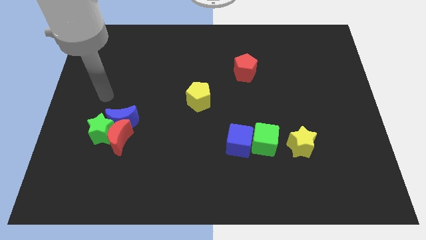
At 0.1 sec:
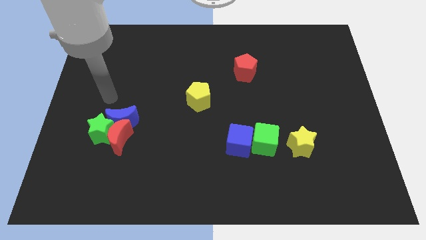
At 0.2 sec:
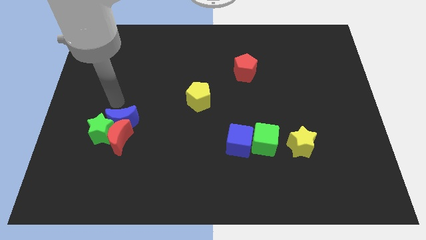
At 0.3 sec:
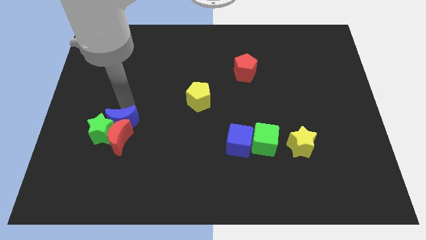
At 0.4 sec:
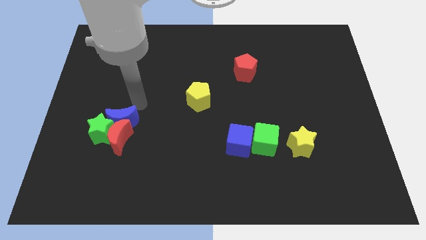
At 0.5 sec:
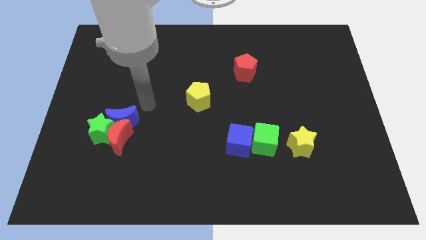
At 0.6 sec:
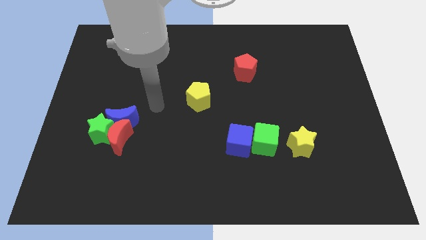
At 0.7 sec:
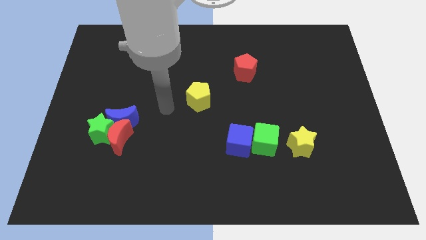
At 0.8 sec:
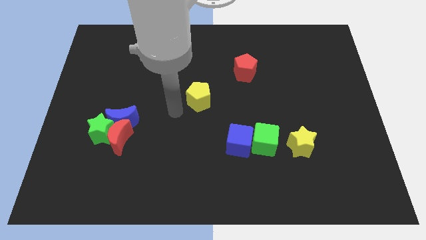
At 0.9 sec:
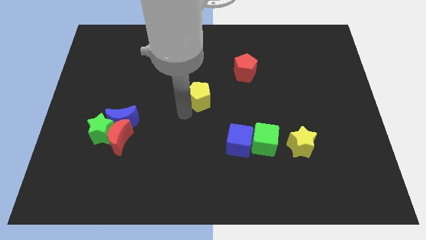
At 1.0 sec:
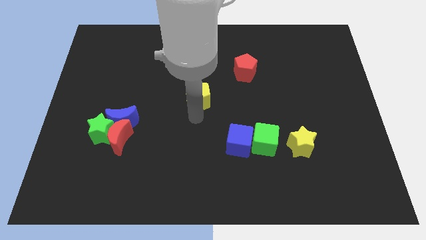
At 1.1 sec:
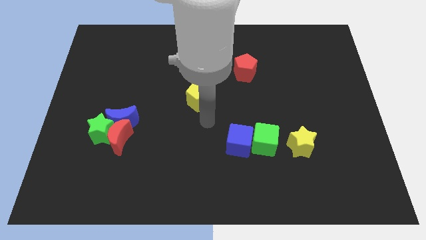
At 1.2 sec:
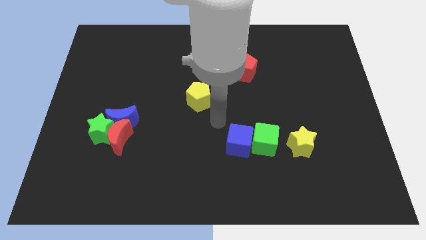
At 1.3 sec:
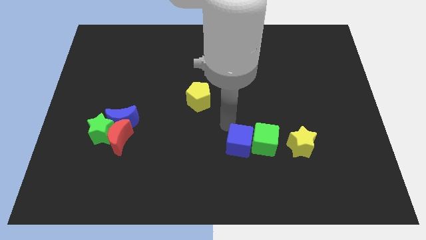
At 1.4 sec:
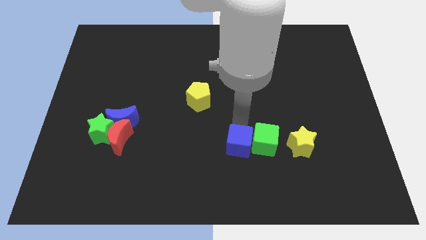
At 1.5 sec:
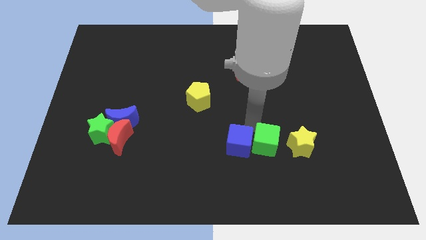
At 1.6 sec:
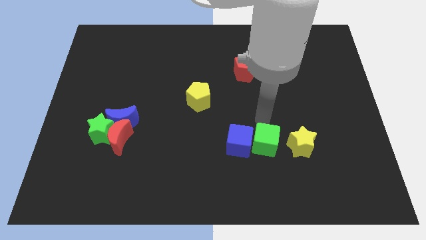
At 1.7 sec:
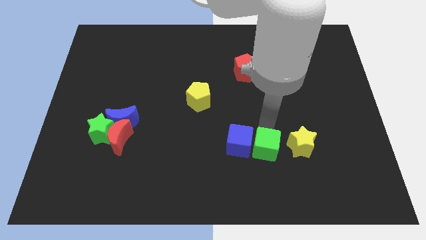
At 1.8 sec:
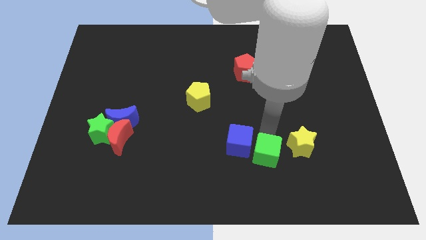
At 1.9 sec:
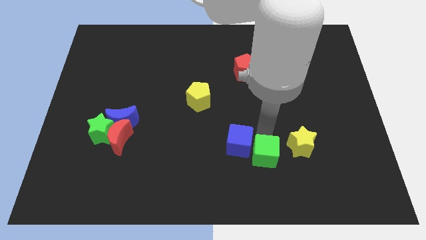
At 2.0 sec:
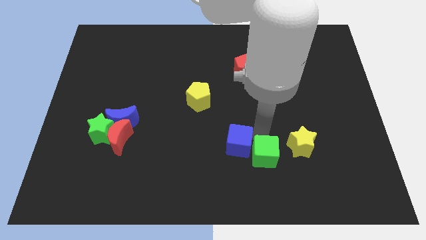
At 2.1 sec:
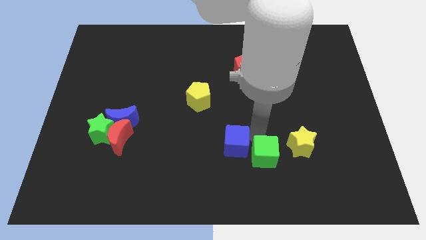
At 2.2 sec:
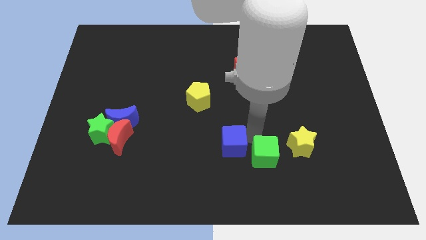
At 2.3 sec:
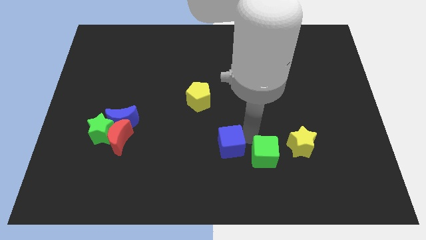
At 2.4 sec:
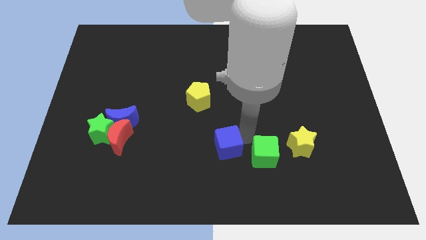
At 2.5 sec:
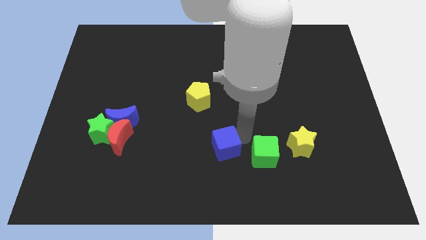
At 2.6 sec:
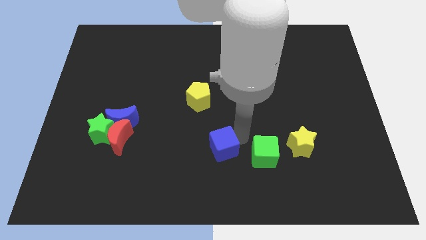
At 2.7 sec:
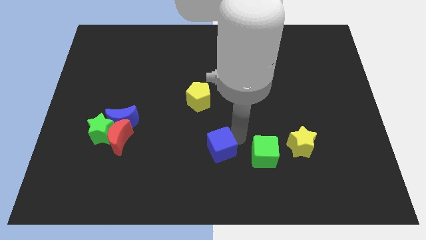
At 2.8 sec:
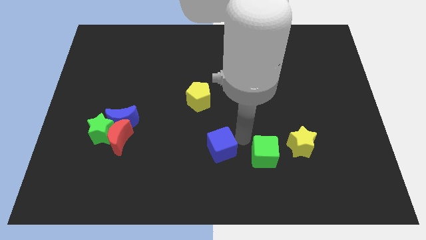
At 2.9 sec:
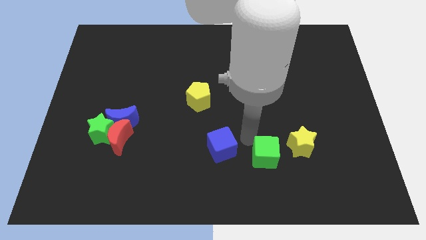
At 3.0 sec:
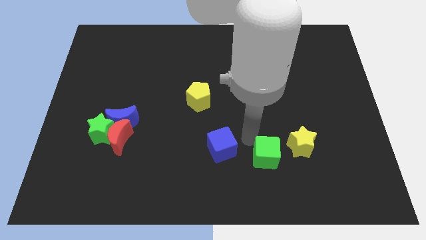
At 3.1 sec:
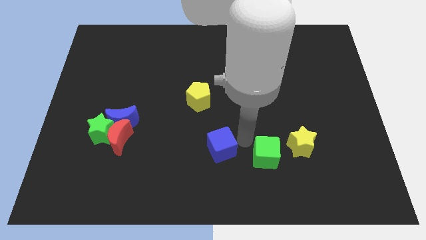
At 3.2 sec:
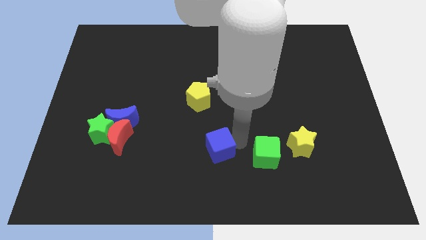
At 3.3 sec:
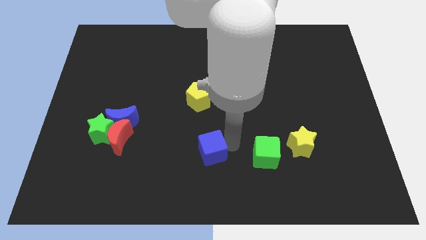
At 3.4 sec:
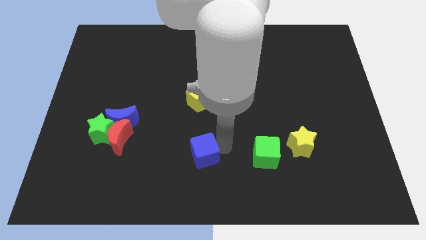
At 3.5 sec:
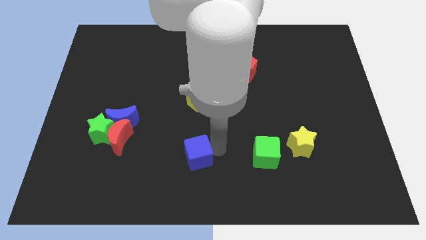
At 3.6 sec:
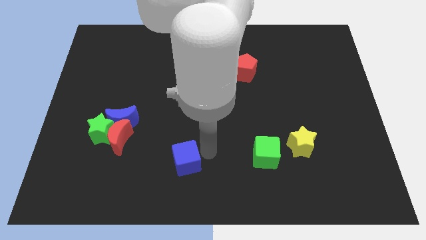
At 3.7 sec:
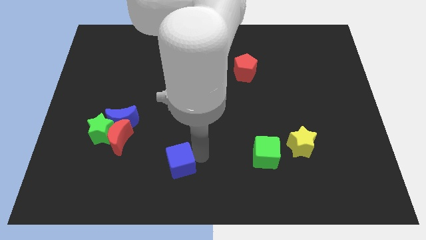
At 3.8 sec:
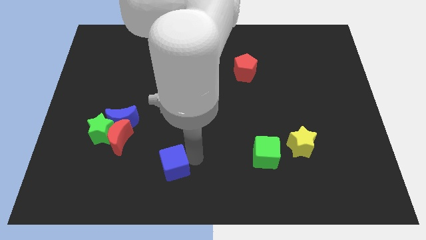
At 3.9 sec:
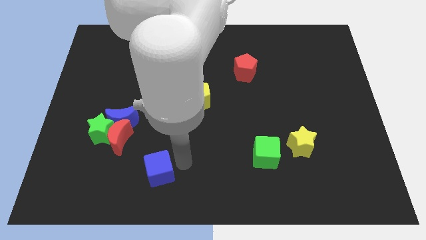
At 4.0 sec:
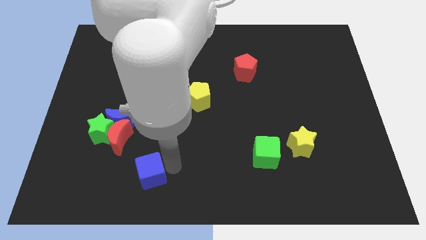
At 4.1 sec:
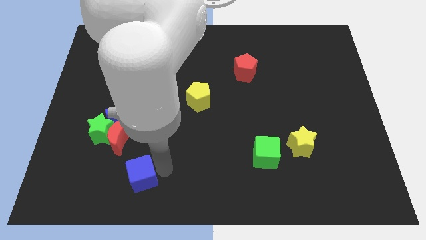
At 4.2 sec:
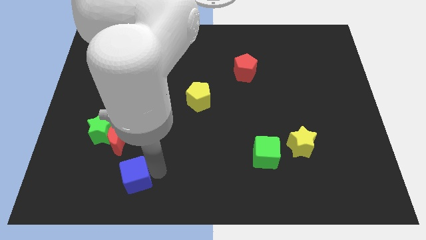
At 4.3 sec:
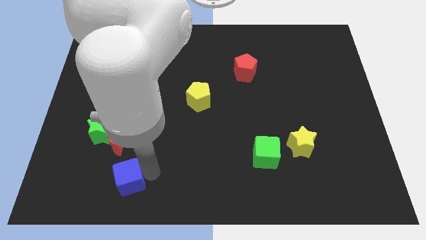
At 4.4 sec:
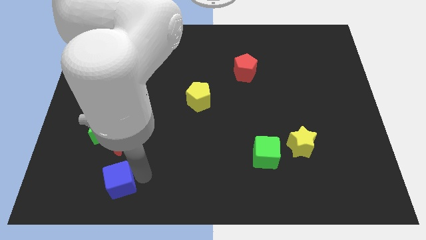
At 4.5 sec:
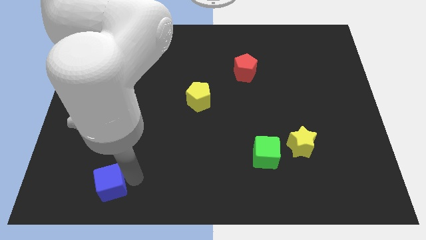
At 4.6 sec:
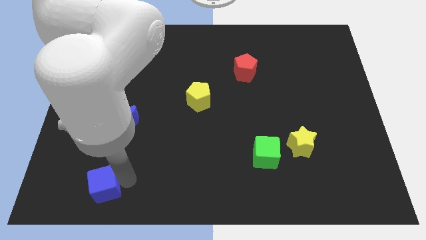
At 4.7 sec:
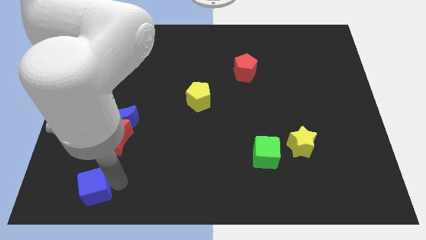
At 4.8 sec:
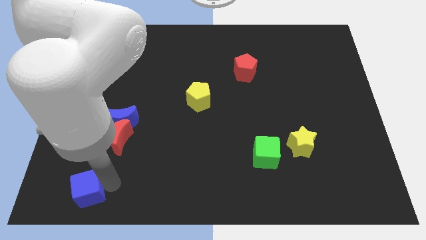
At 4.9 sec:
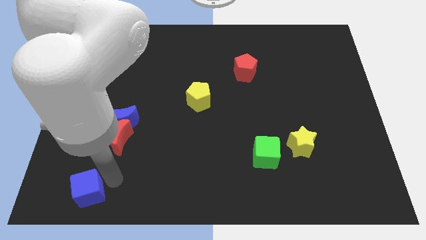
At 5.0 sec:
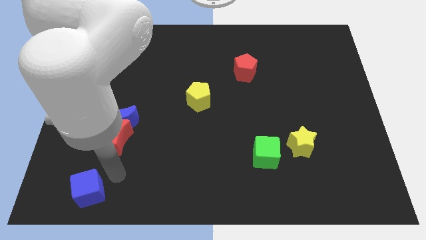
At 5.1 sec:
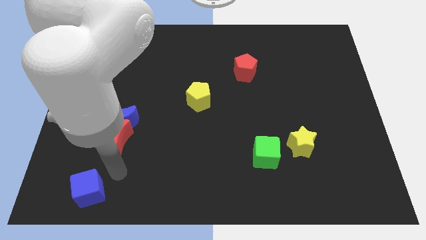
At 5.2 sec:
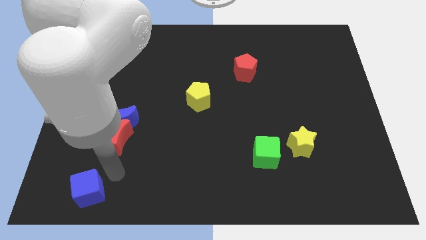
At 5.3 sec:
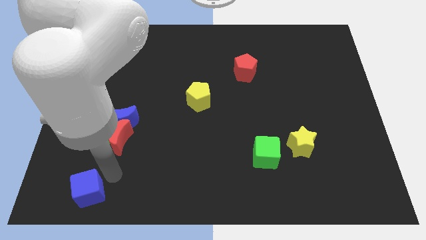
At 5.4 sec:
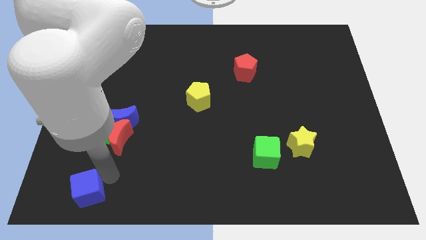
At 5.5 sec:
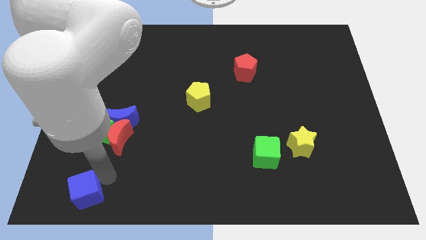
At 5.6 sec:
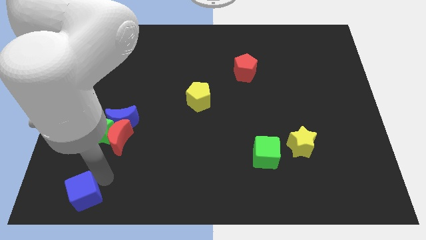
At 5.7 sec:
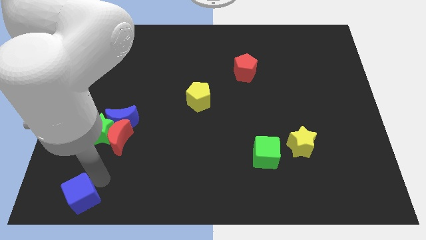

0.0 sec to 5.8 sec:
put the blue cube to the bottom left of the board
